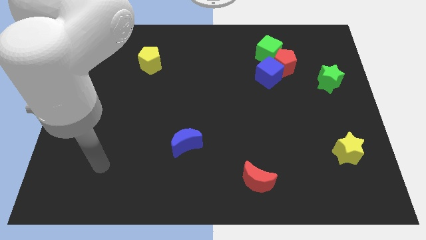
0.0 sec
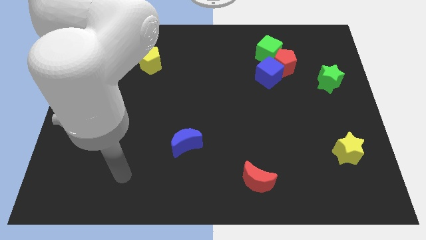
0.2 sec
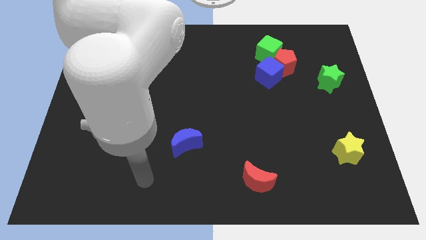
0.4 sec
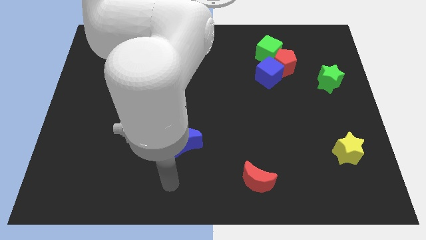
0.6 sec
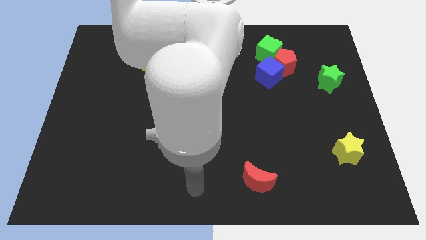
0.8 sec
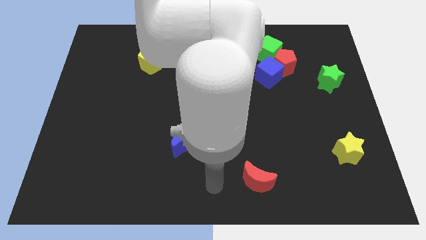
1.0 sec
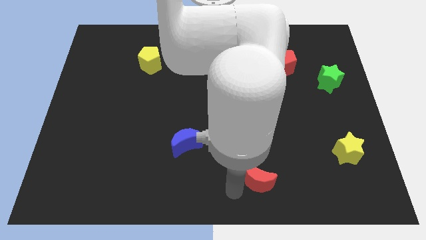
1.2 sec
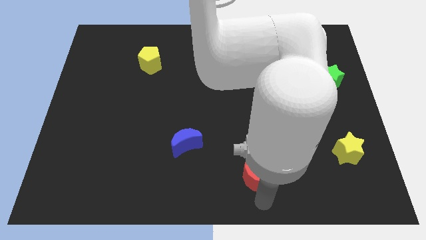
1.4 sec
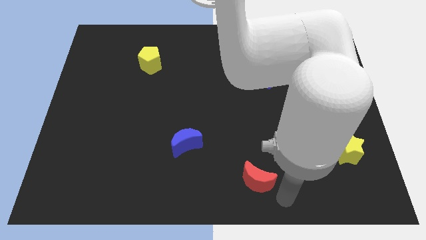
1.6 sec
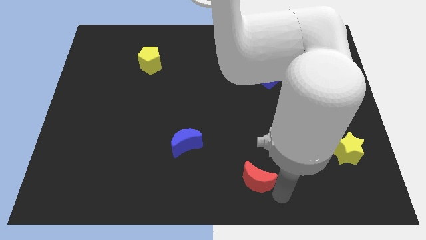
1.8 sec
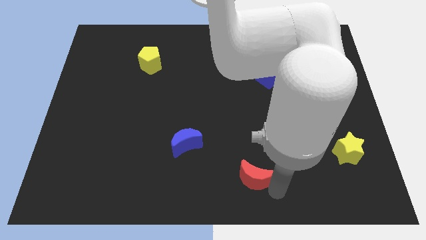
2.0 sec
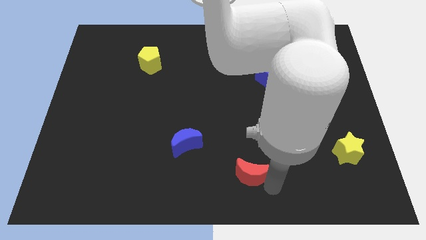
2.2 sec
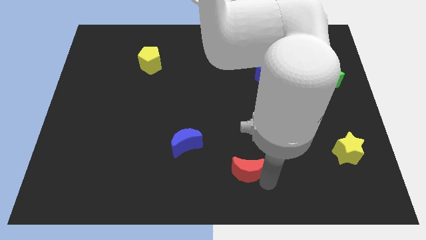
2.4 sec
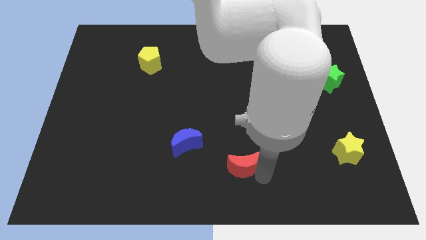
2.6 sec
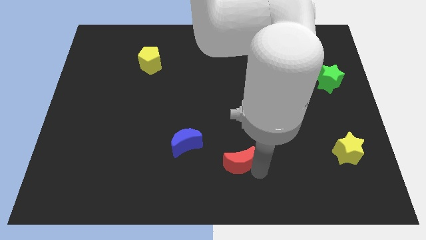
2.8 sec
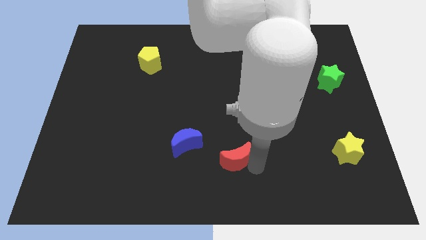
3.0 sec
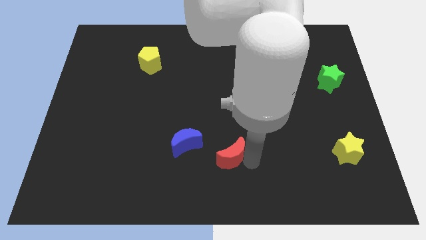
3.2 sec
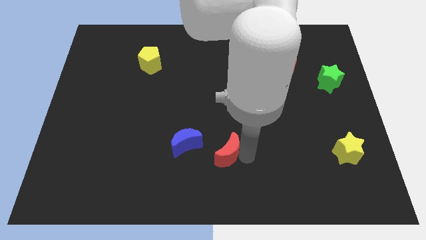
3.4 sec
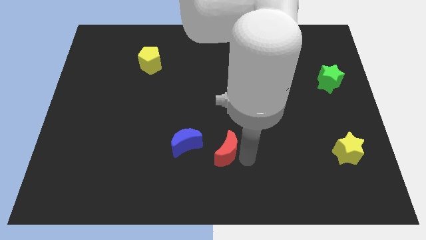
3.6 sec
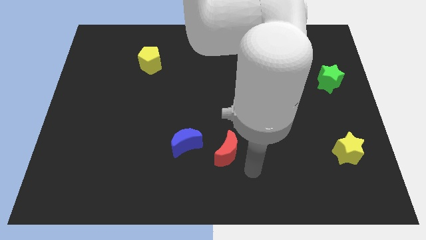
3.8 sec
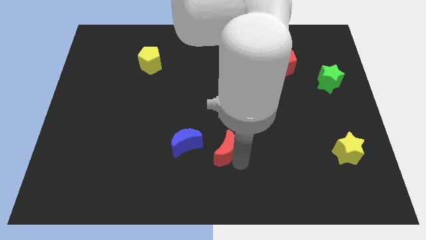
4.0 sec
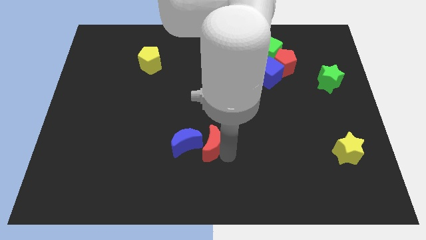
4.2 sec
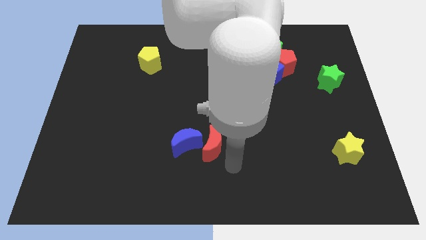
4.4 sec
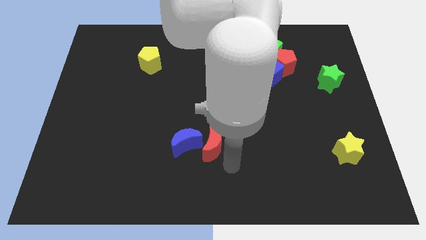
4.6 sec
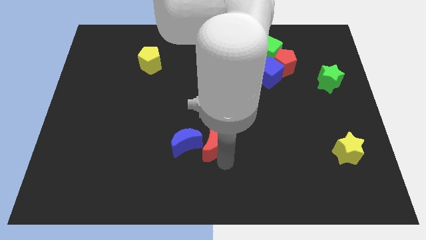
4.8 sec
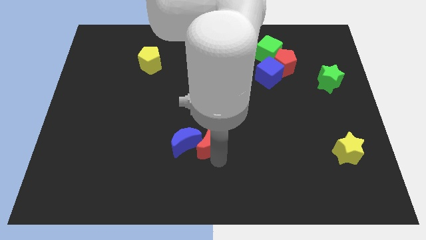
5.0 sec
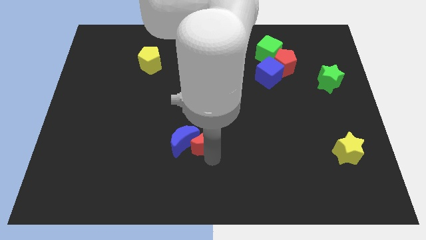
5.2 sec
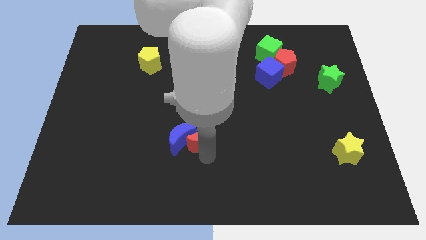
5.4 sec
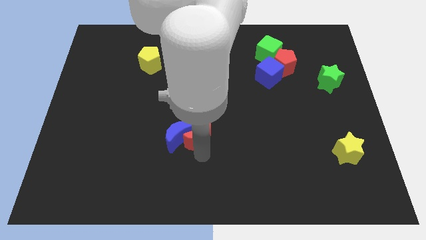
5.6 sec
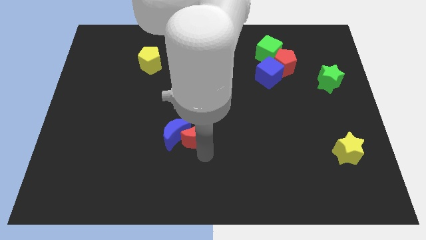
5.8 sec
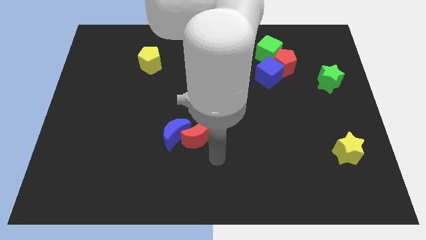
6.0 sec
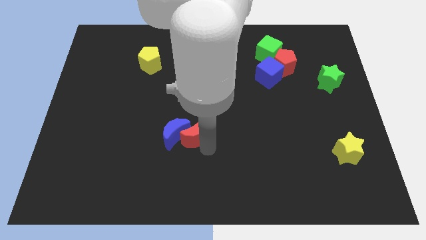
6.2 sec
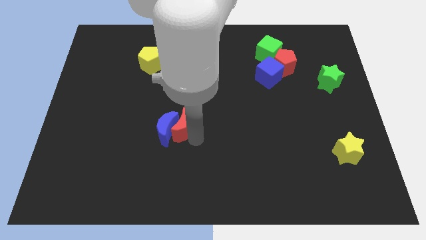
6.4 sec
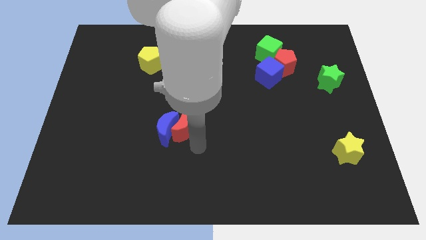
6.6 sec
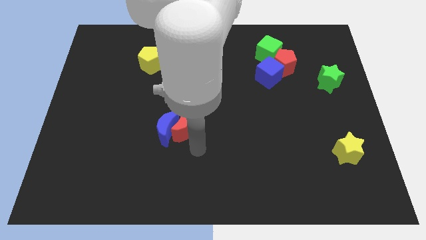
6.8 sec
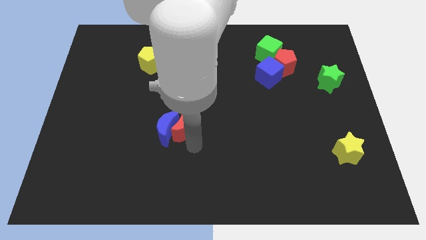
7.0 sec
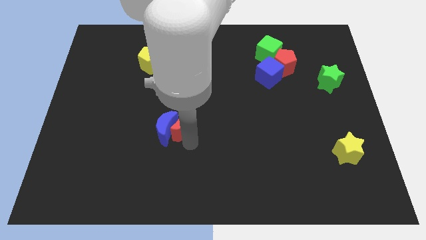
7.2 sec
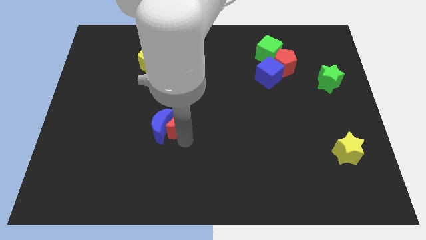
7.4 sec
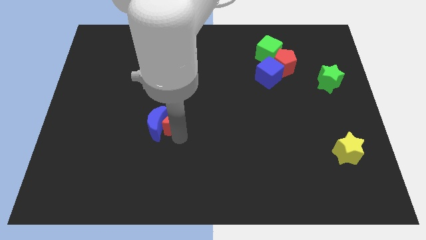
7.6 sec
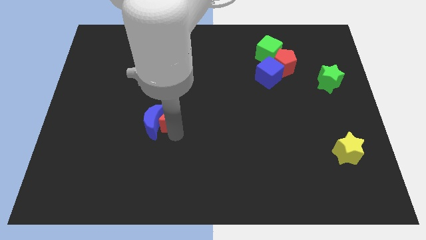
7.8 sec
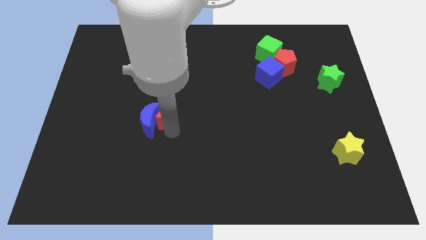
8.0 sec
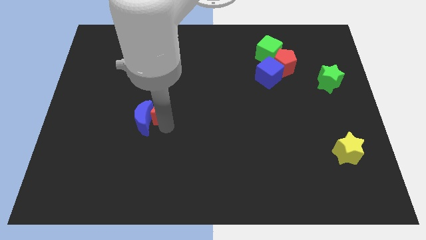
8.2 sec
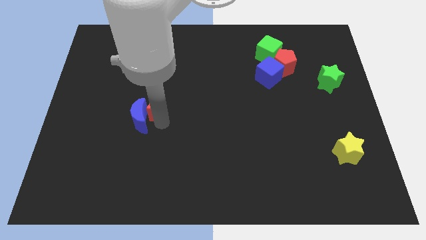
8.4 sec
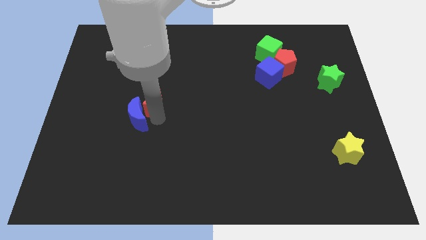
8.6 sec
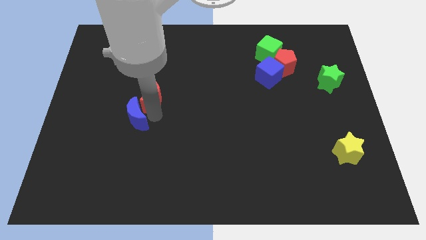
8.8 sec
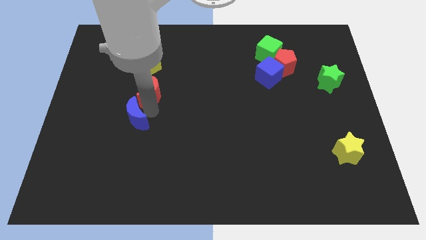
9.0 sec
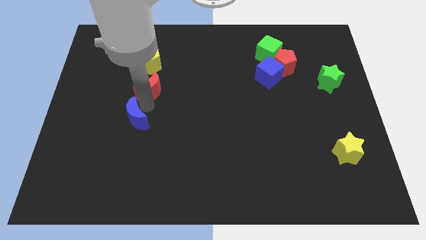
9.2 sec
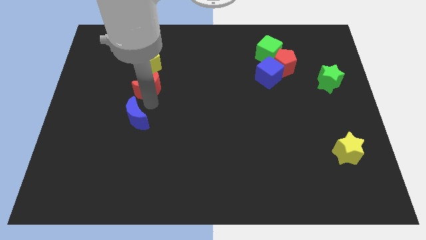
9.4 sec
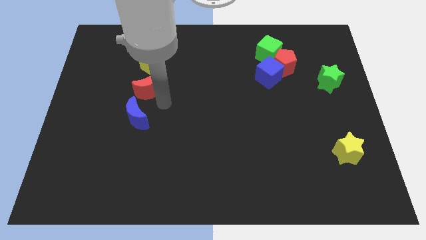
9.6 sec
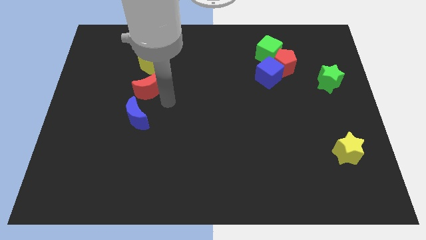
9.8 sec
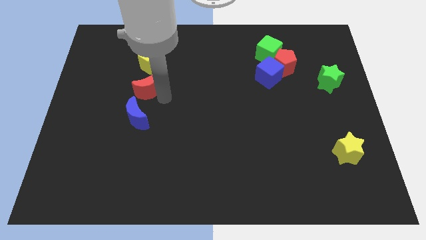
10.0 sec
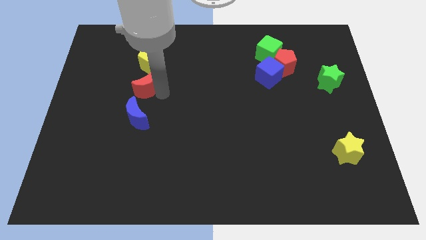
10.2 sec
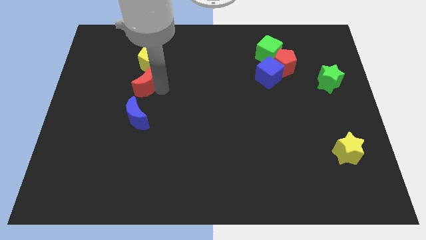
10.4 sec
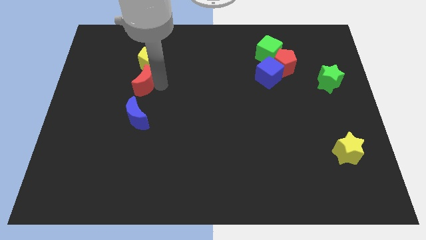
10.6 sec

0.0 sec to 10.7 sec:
slide the red moon to the bottom left side of the yellow pentagon

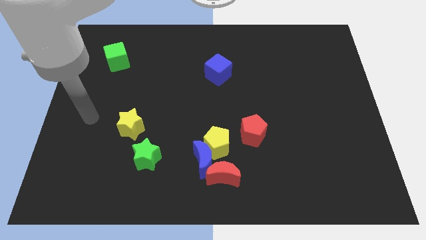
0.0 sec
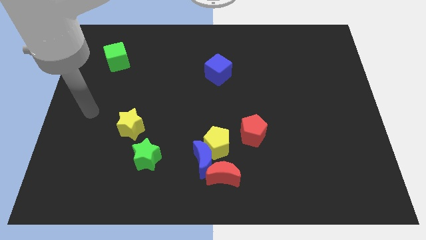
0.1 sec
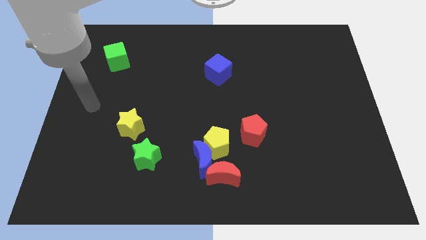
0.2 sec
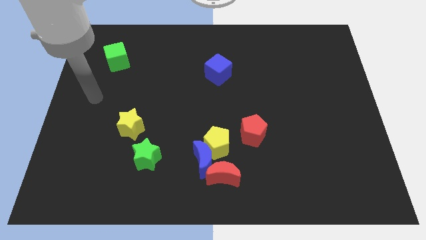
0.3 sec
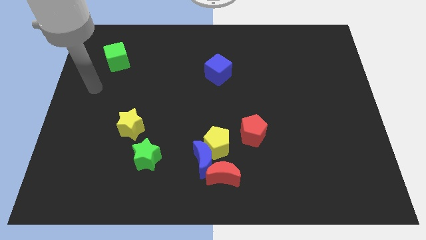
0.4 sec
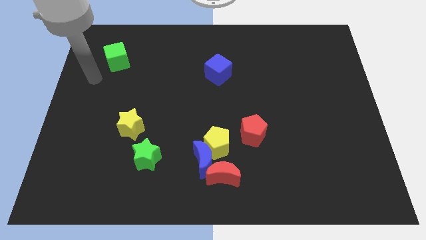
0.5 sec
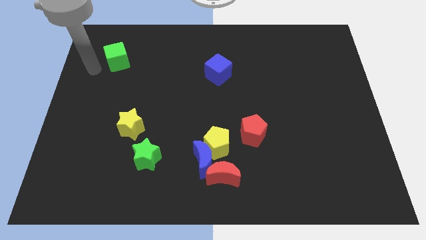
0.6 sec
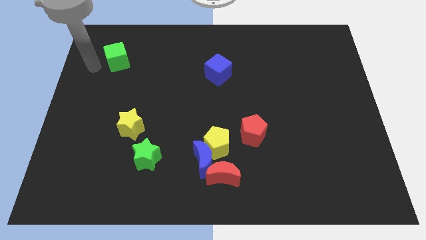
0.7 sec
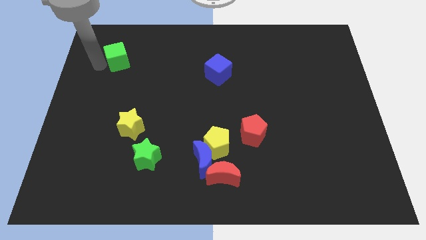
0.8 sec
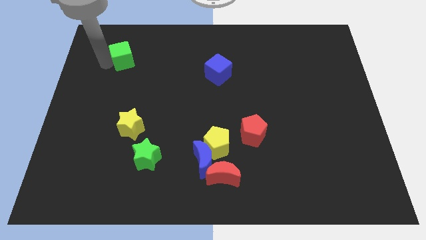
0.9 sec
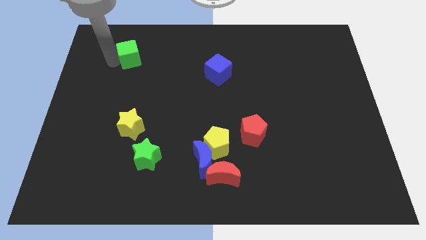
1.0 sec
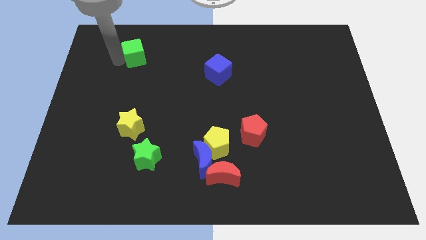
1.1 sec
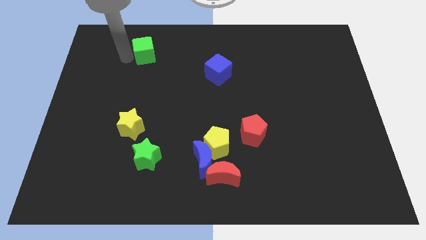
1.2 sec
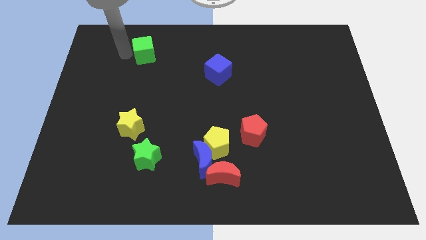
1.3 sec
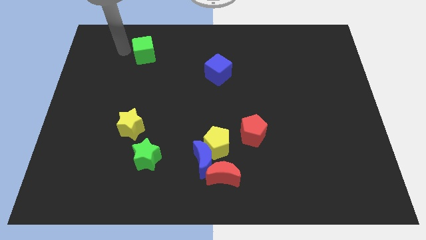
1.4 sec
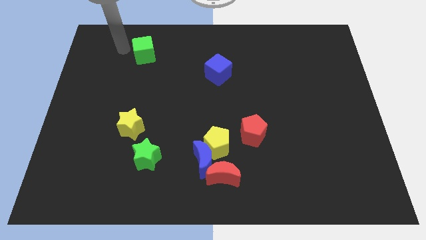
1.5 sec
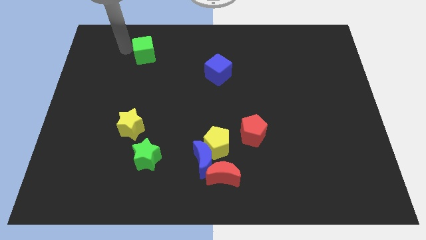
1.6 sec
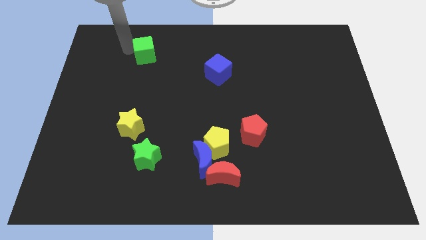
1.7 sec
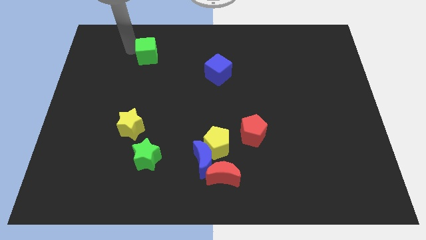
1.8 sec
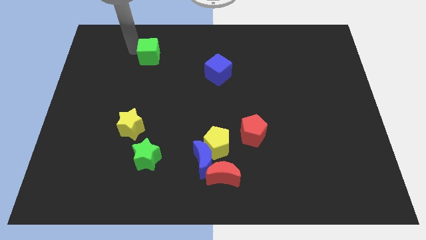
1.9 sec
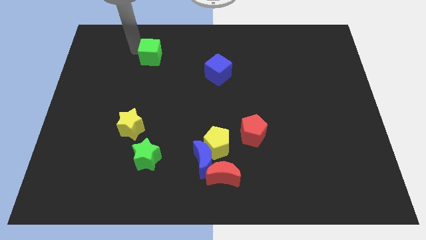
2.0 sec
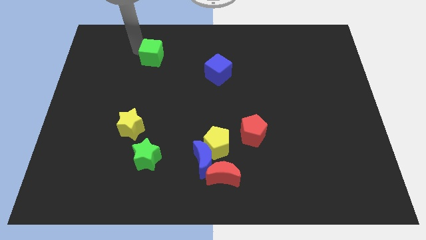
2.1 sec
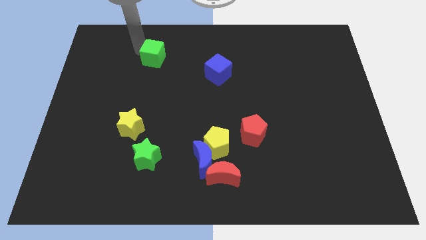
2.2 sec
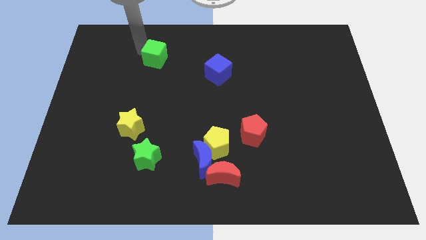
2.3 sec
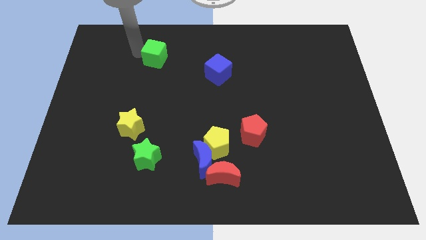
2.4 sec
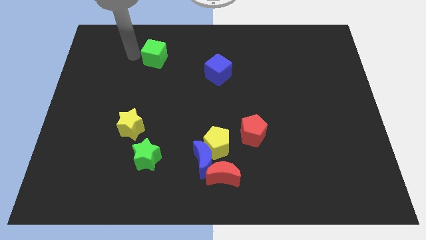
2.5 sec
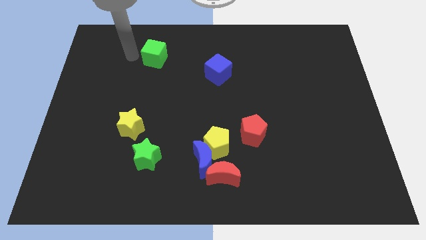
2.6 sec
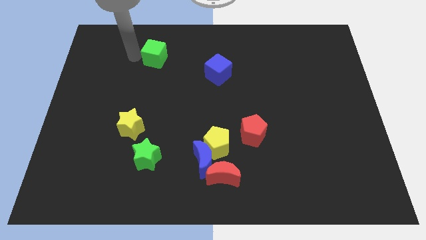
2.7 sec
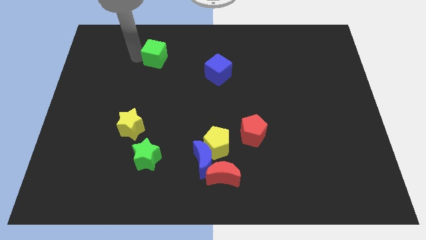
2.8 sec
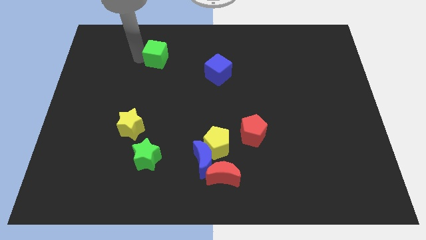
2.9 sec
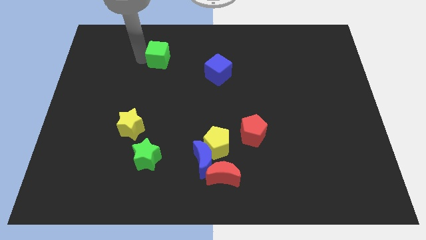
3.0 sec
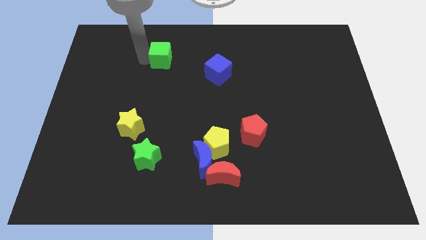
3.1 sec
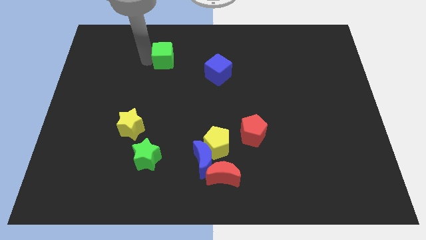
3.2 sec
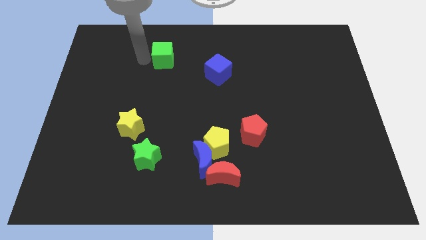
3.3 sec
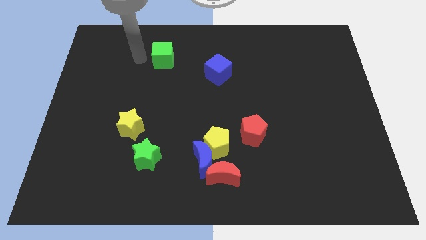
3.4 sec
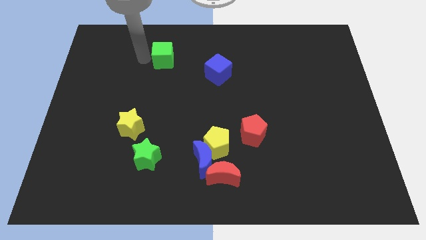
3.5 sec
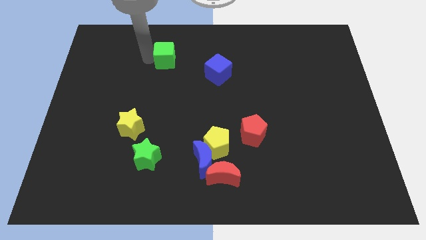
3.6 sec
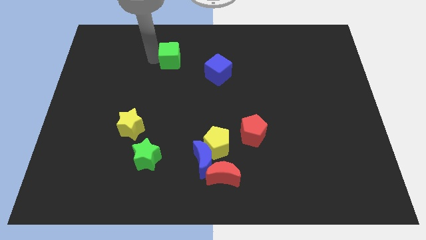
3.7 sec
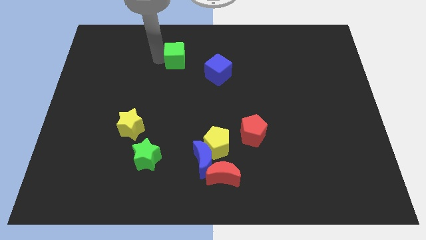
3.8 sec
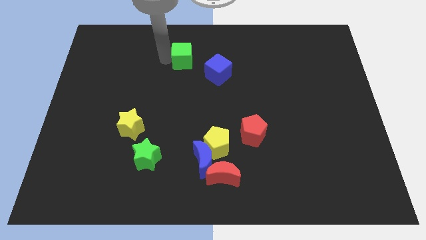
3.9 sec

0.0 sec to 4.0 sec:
slide the green cube to the top left of the blue cube
